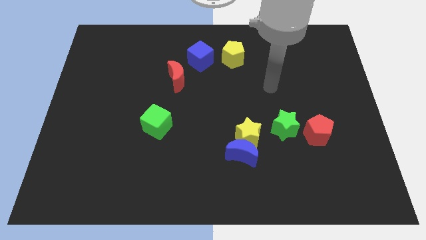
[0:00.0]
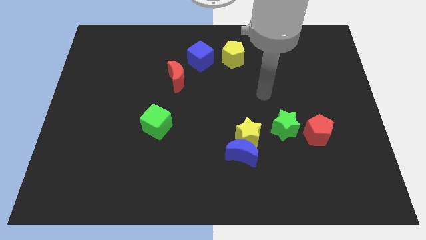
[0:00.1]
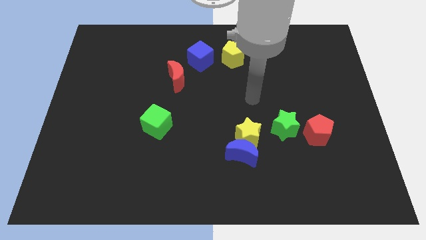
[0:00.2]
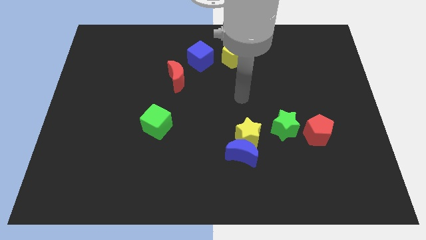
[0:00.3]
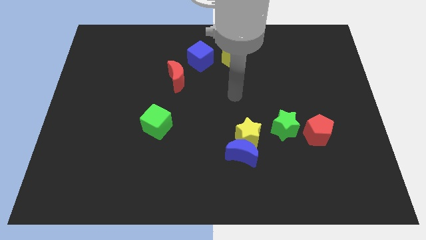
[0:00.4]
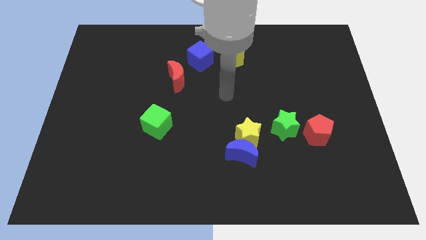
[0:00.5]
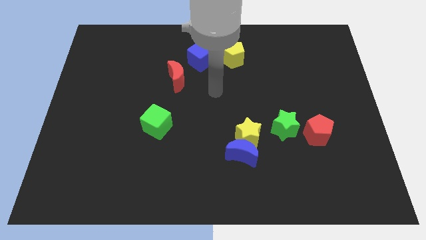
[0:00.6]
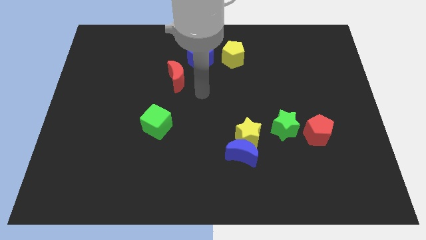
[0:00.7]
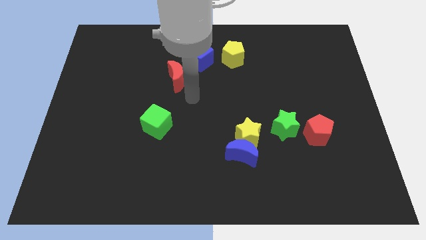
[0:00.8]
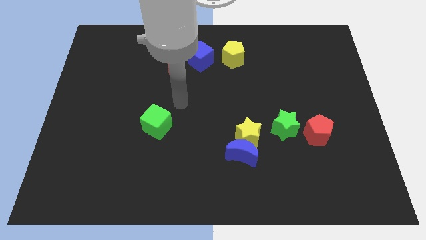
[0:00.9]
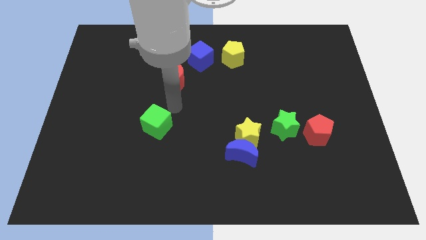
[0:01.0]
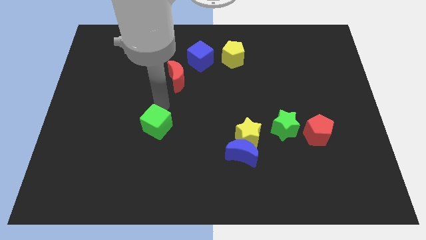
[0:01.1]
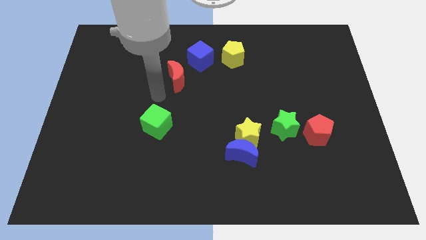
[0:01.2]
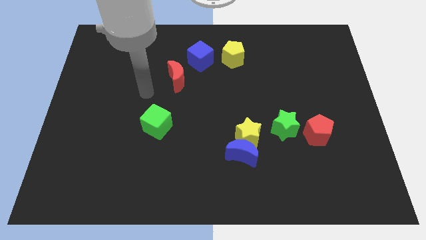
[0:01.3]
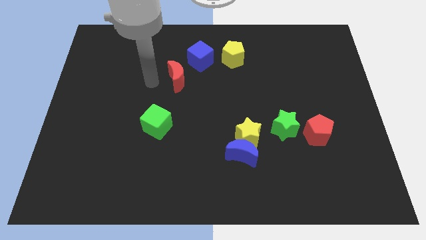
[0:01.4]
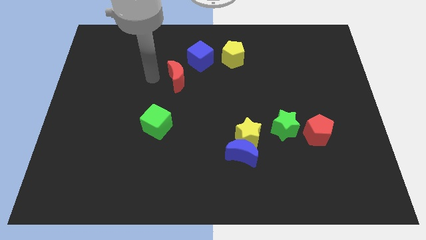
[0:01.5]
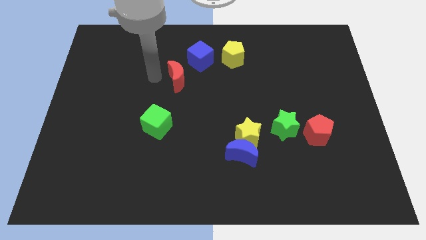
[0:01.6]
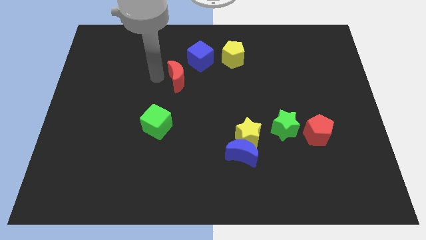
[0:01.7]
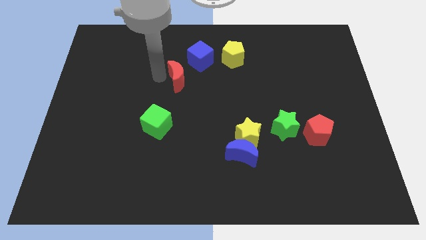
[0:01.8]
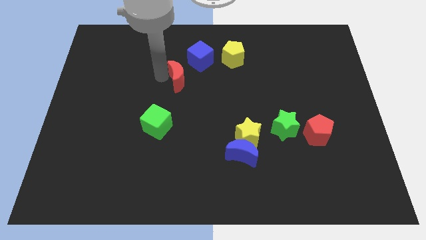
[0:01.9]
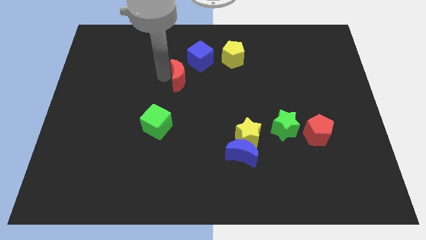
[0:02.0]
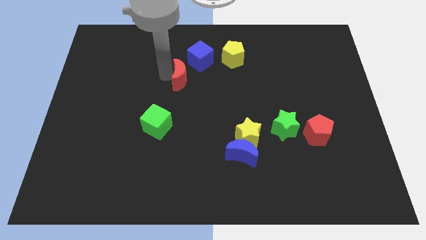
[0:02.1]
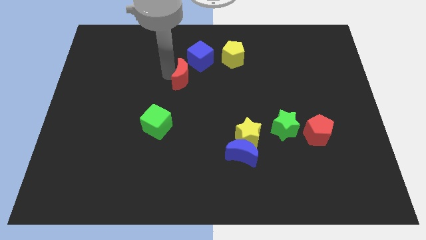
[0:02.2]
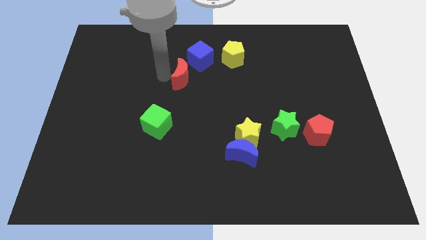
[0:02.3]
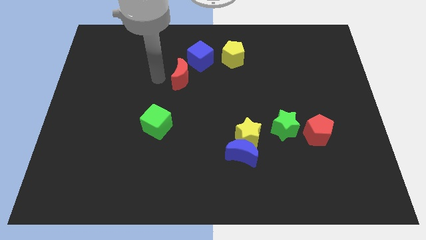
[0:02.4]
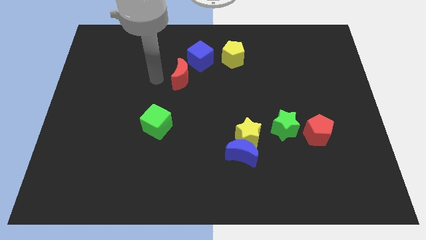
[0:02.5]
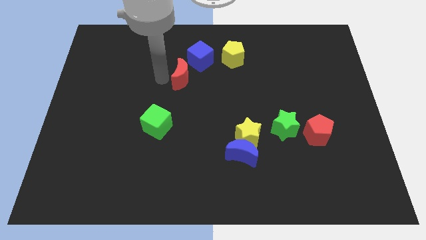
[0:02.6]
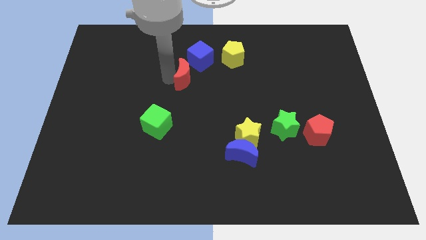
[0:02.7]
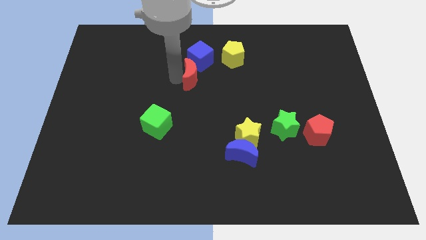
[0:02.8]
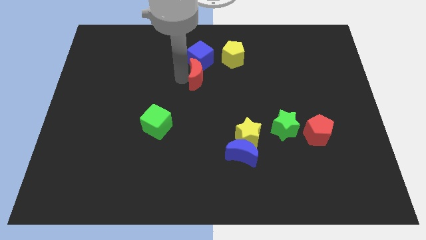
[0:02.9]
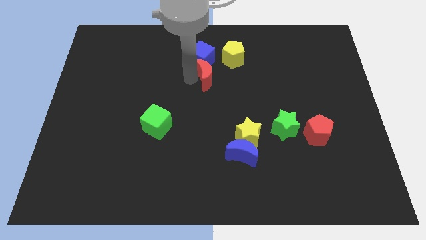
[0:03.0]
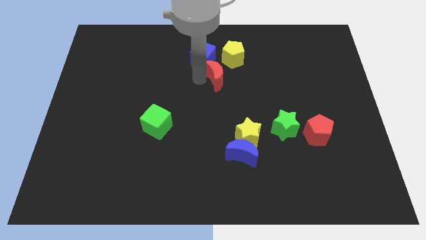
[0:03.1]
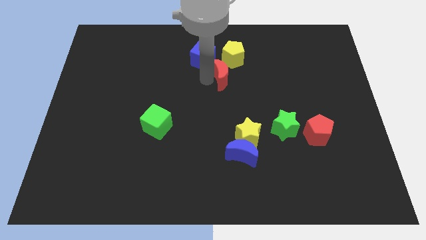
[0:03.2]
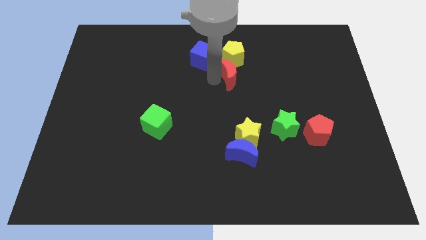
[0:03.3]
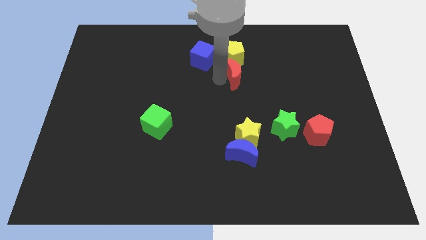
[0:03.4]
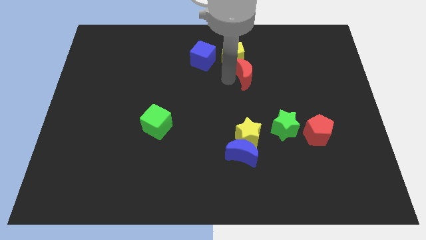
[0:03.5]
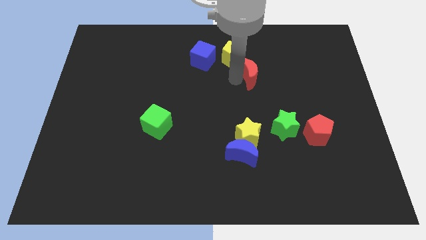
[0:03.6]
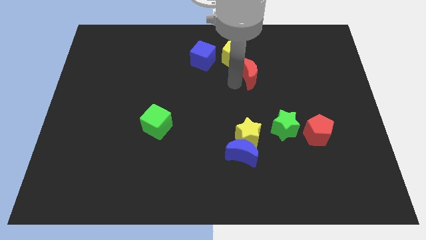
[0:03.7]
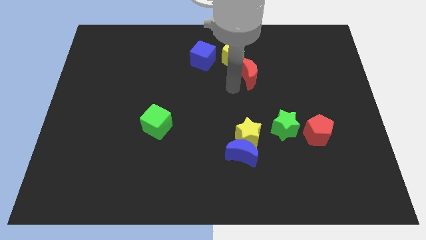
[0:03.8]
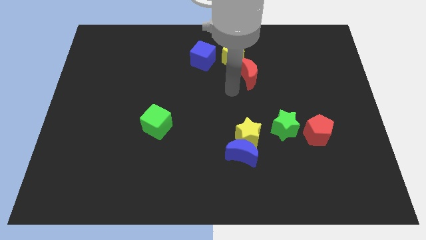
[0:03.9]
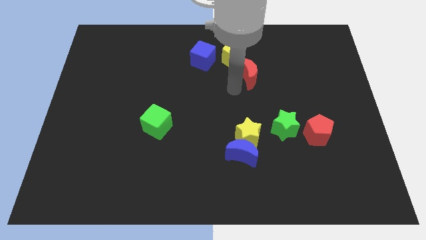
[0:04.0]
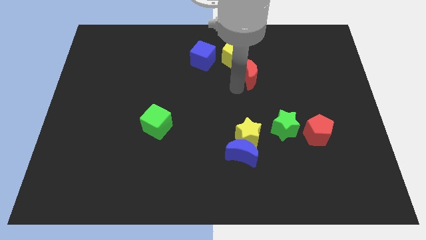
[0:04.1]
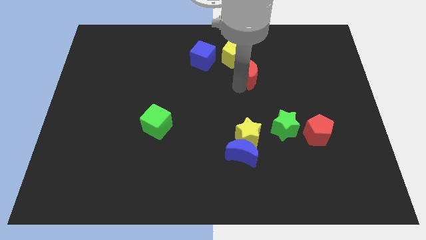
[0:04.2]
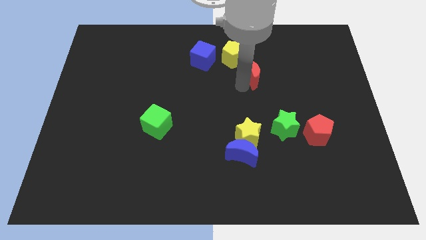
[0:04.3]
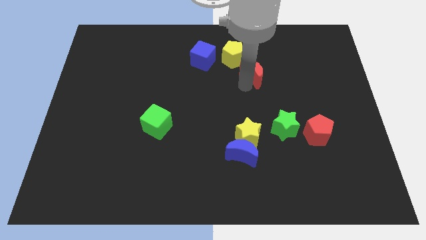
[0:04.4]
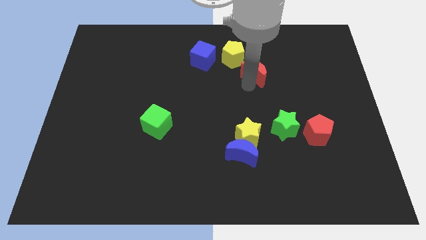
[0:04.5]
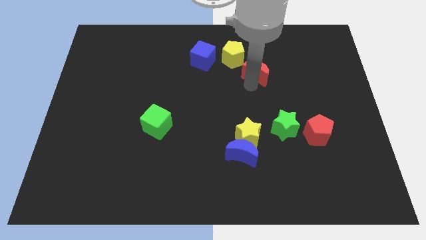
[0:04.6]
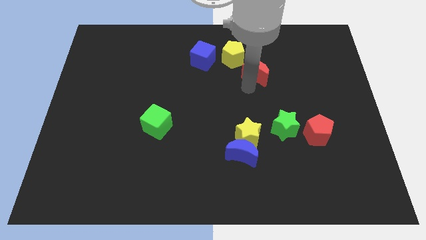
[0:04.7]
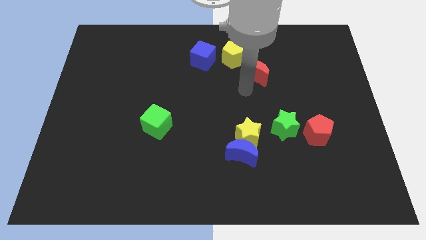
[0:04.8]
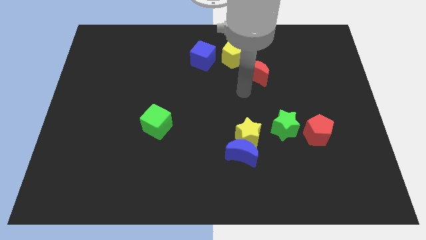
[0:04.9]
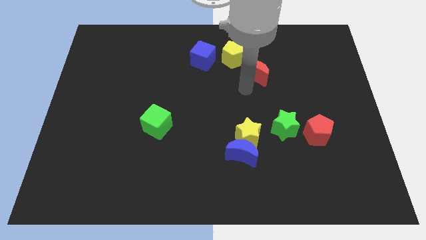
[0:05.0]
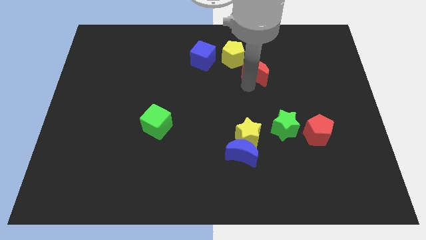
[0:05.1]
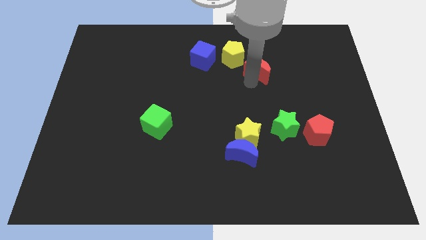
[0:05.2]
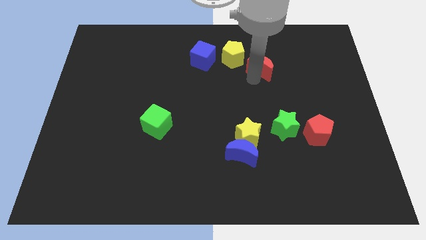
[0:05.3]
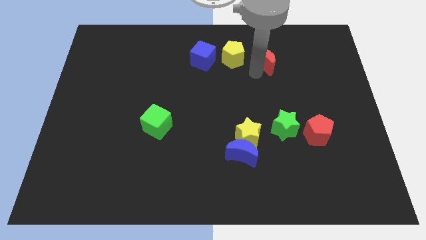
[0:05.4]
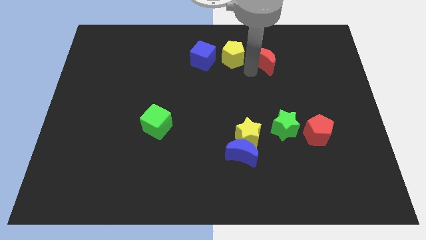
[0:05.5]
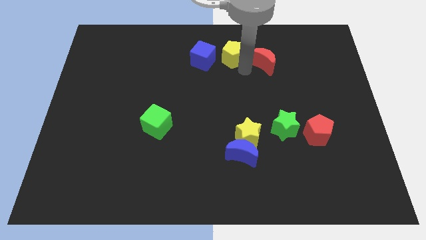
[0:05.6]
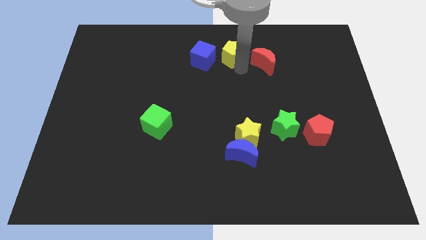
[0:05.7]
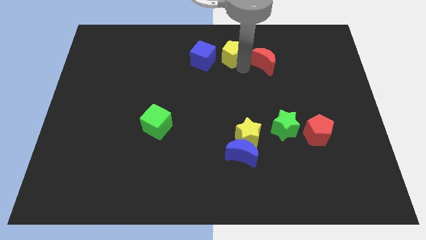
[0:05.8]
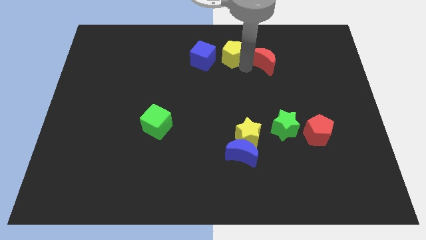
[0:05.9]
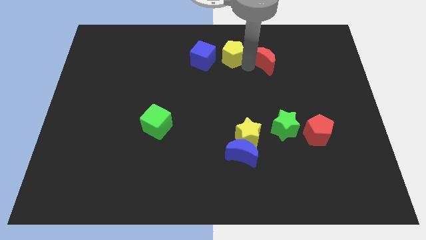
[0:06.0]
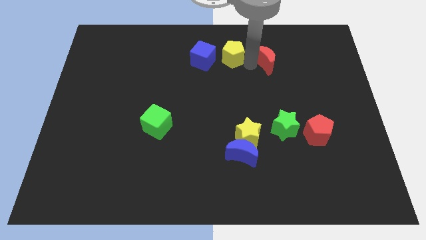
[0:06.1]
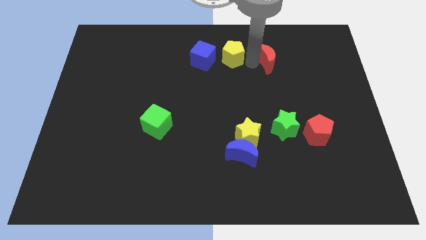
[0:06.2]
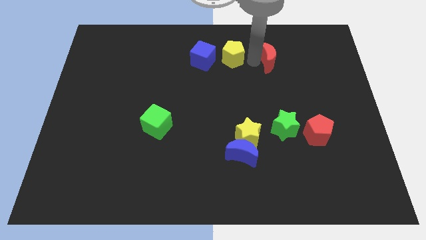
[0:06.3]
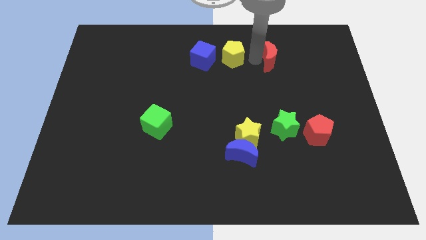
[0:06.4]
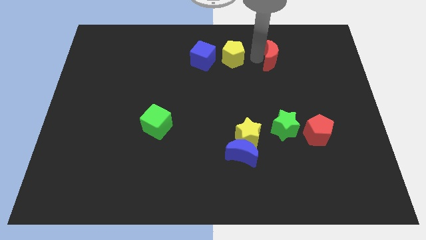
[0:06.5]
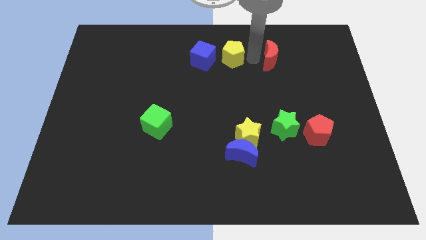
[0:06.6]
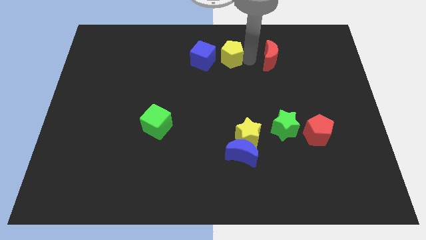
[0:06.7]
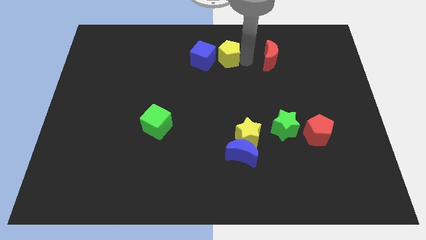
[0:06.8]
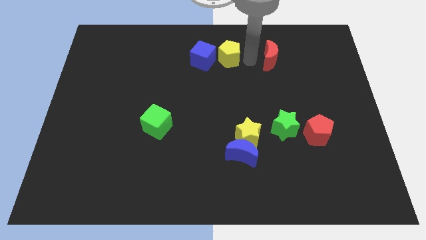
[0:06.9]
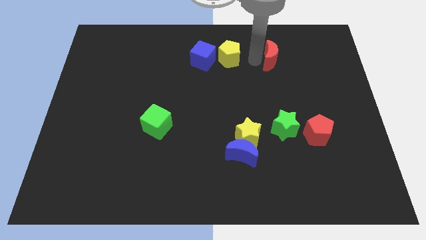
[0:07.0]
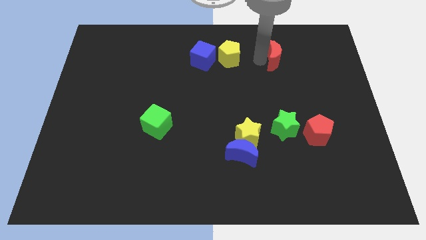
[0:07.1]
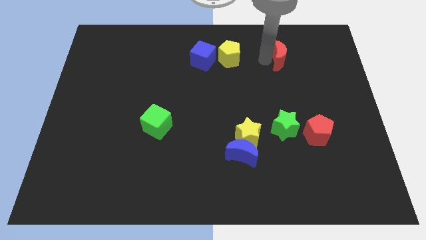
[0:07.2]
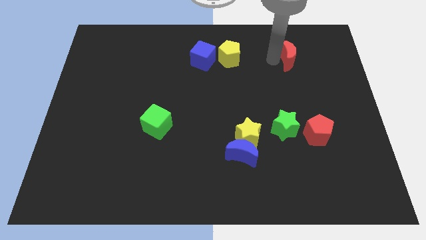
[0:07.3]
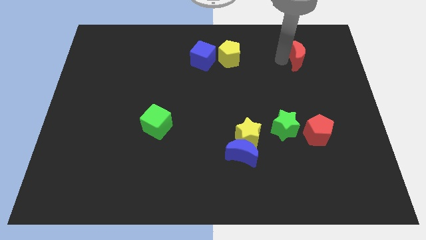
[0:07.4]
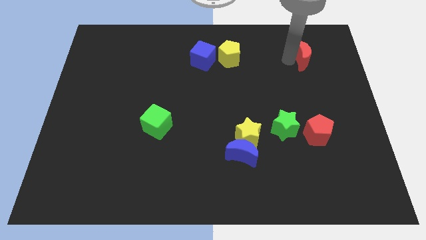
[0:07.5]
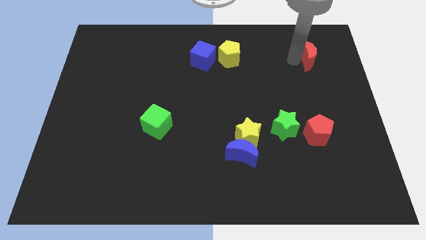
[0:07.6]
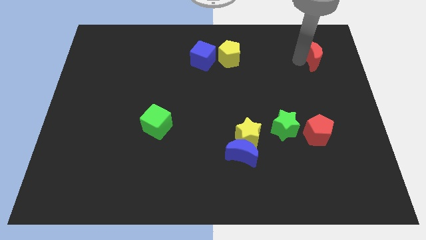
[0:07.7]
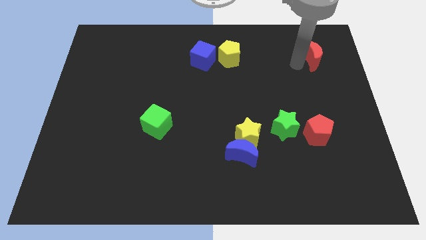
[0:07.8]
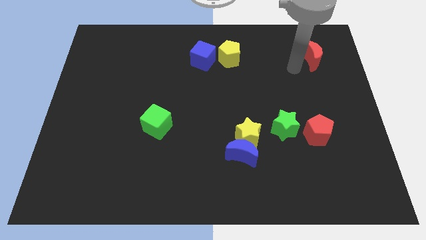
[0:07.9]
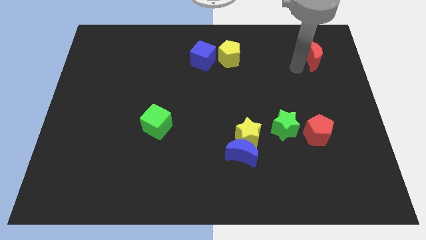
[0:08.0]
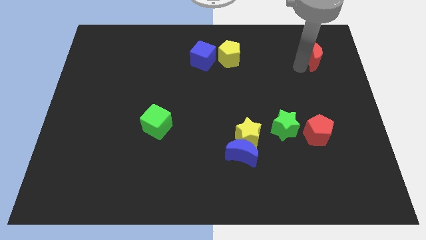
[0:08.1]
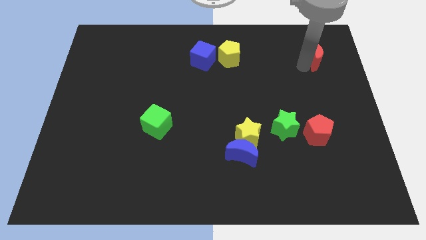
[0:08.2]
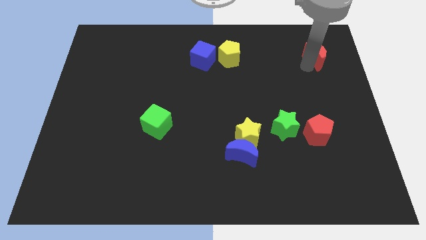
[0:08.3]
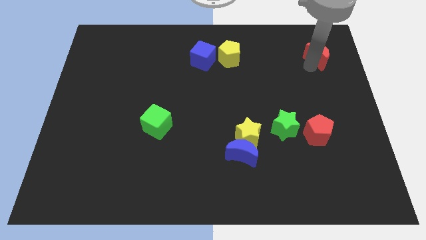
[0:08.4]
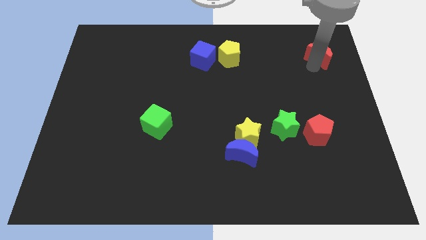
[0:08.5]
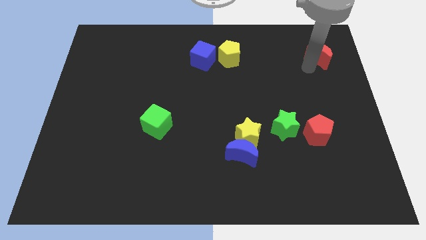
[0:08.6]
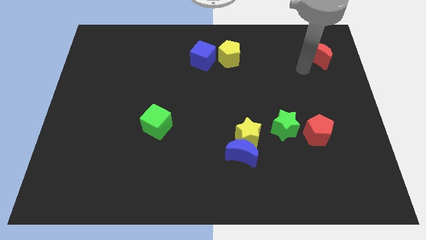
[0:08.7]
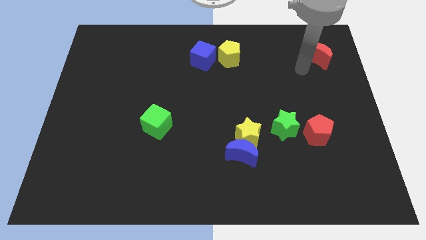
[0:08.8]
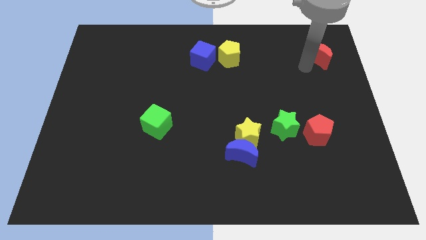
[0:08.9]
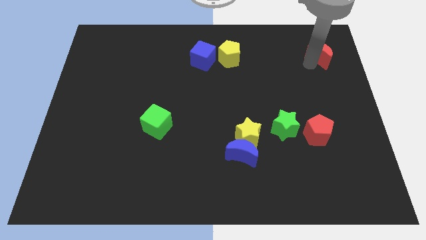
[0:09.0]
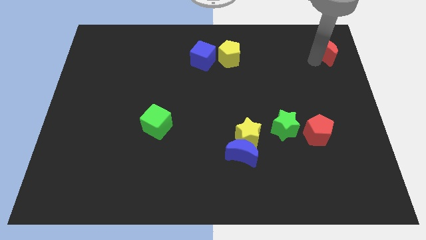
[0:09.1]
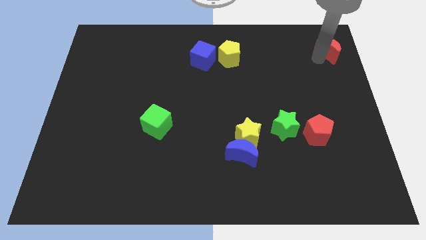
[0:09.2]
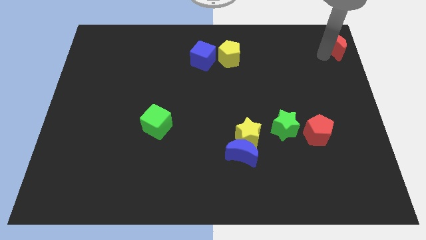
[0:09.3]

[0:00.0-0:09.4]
slide the red moon to the top right of the board
